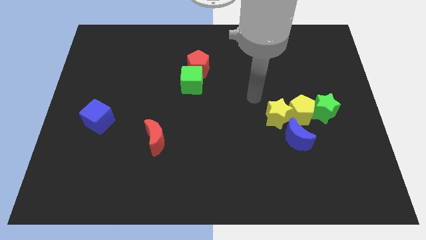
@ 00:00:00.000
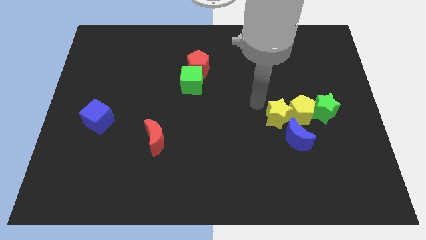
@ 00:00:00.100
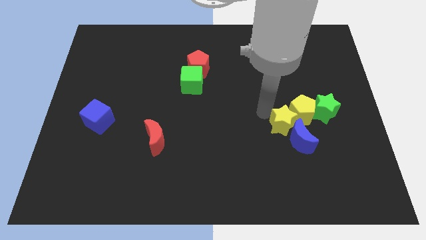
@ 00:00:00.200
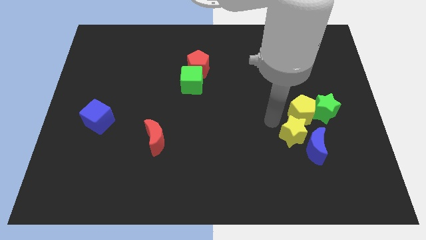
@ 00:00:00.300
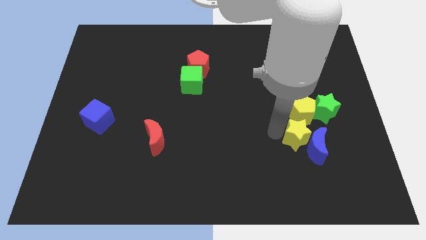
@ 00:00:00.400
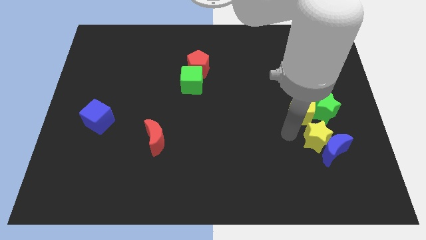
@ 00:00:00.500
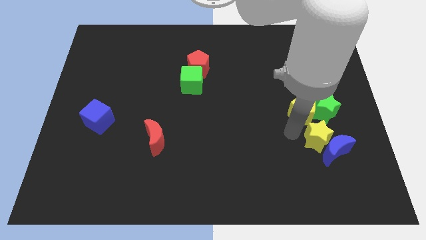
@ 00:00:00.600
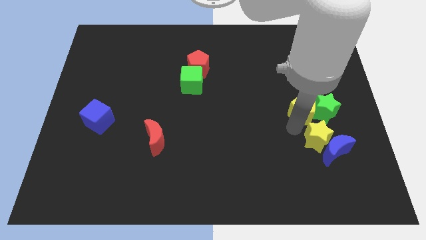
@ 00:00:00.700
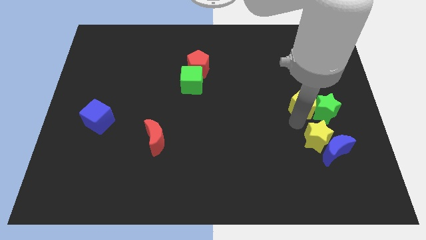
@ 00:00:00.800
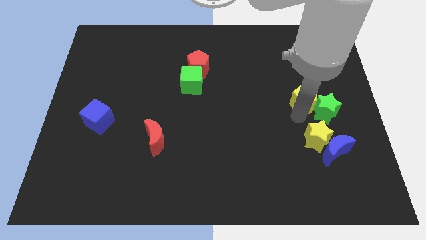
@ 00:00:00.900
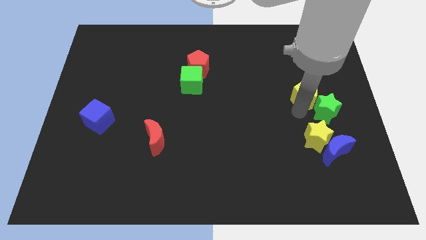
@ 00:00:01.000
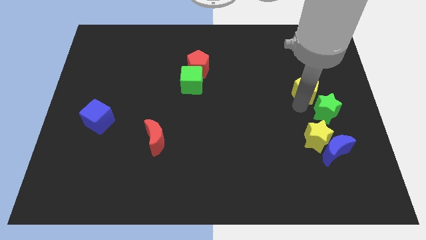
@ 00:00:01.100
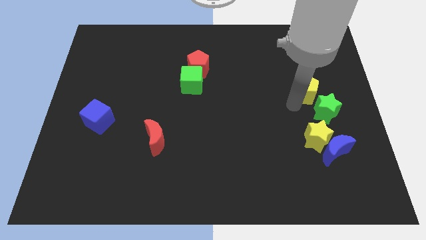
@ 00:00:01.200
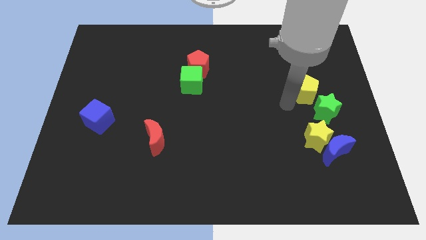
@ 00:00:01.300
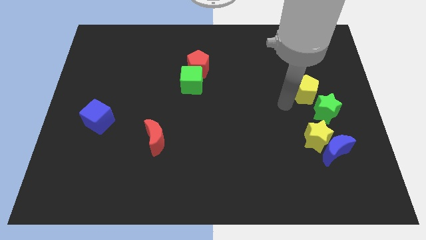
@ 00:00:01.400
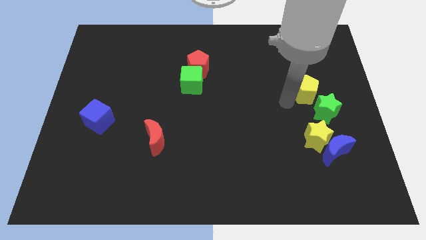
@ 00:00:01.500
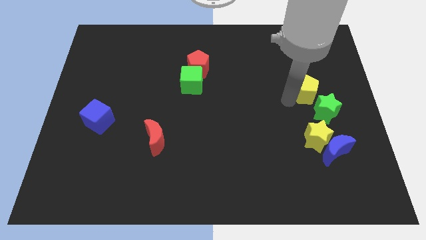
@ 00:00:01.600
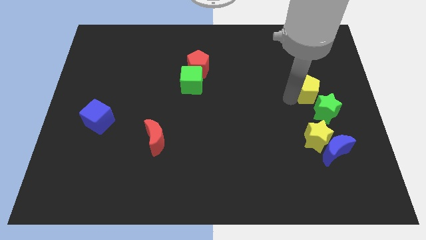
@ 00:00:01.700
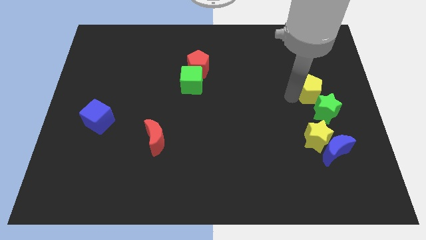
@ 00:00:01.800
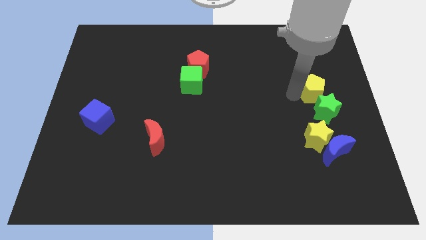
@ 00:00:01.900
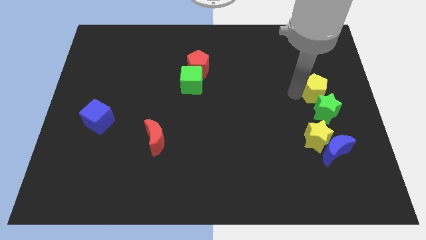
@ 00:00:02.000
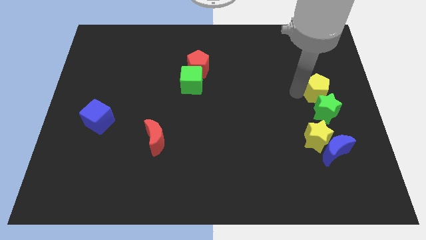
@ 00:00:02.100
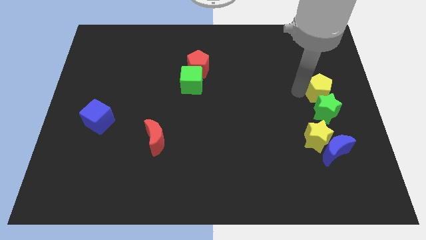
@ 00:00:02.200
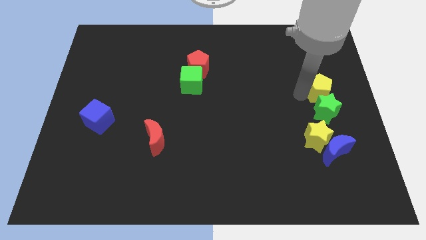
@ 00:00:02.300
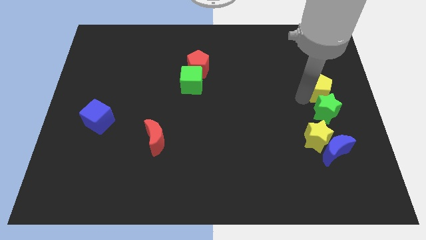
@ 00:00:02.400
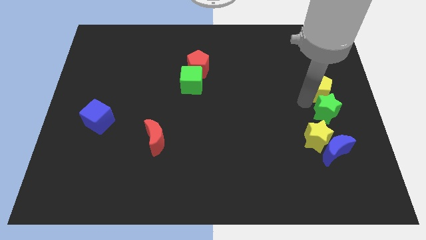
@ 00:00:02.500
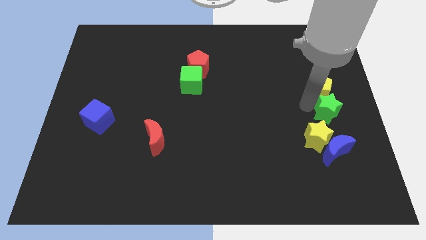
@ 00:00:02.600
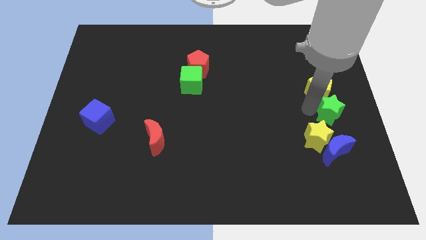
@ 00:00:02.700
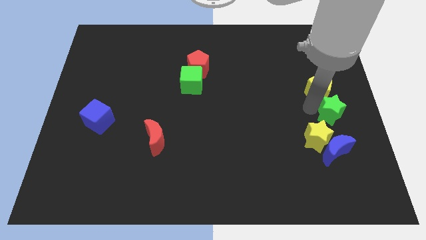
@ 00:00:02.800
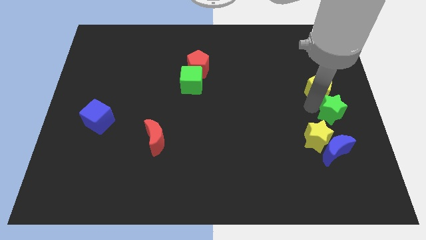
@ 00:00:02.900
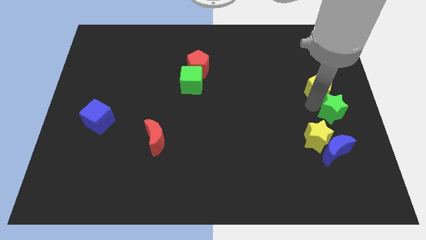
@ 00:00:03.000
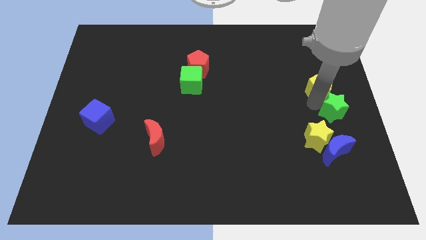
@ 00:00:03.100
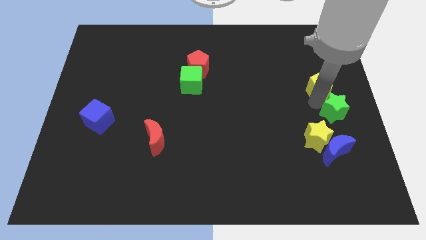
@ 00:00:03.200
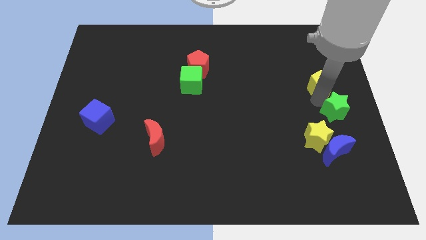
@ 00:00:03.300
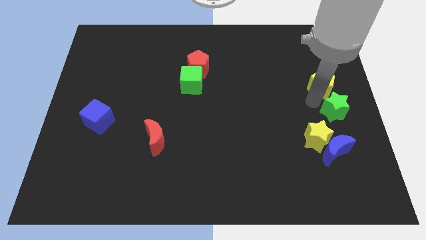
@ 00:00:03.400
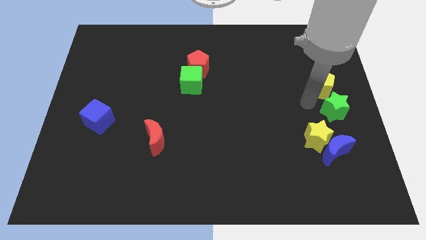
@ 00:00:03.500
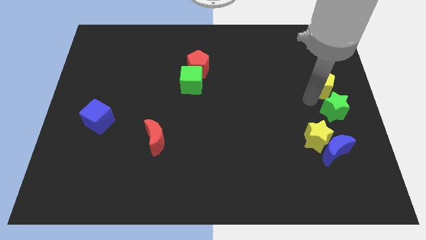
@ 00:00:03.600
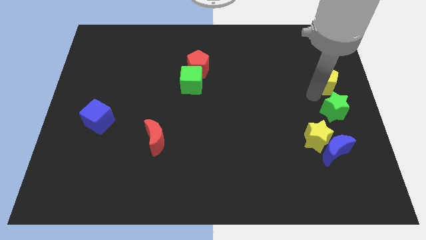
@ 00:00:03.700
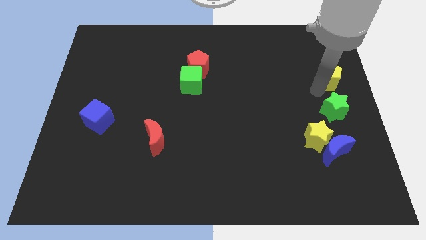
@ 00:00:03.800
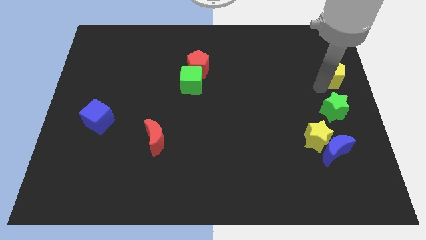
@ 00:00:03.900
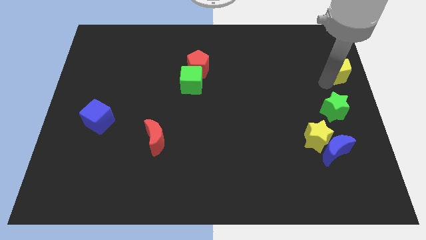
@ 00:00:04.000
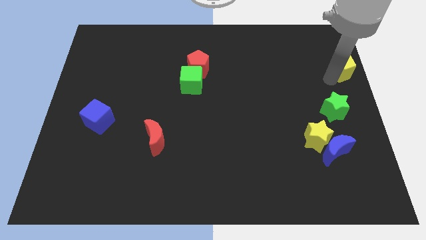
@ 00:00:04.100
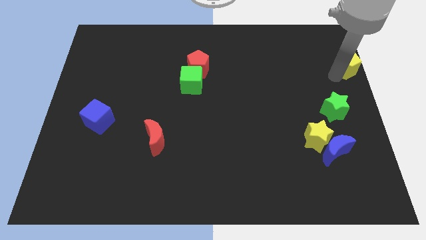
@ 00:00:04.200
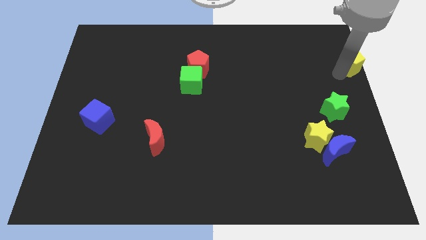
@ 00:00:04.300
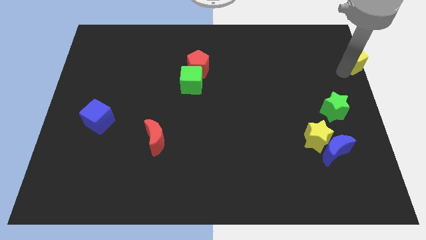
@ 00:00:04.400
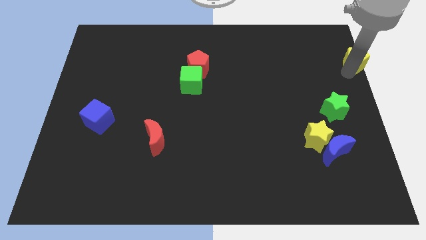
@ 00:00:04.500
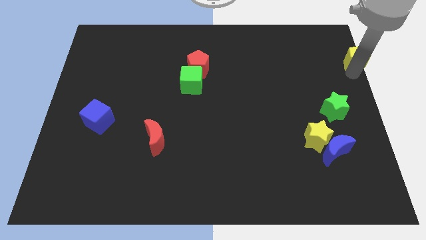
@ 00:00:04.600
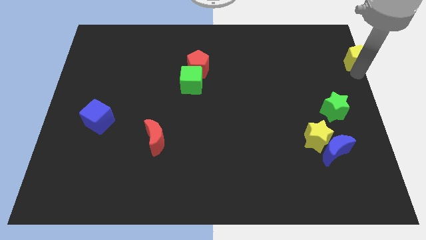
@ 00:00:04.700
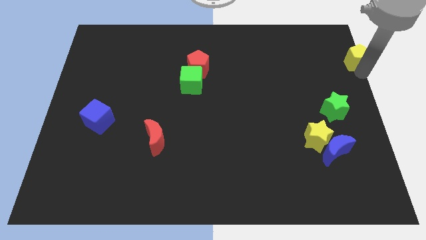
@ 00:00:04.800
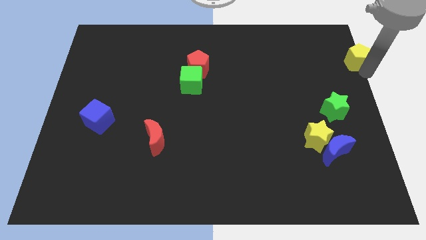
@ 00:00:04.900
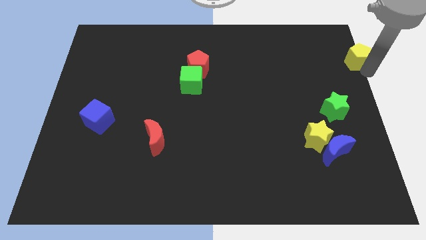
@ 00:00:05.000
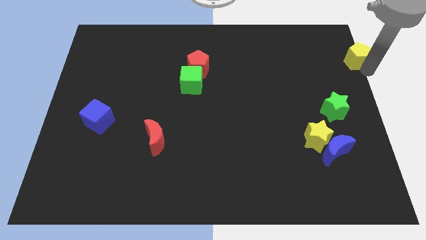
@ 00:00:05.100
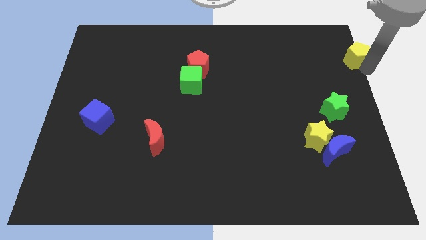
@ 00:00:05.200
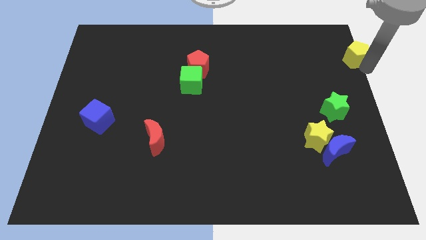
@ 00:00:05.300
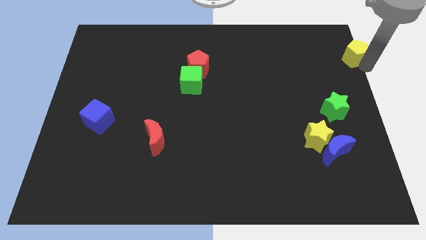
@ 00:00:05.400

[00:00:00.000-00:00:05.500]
put the yellow pentagon to the top right
